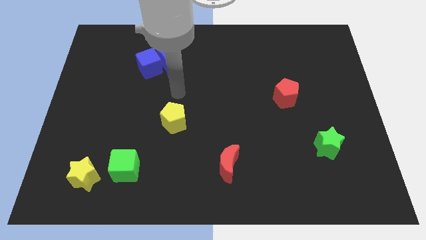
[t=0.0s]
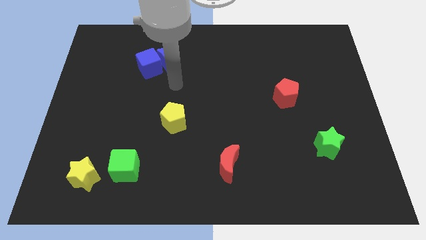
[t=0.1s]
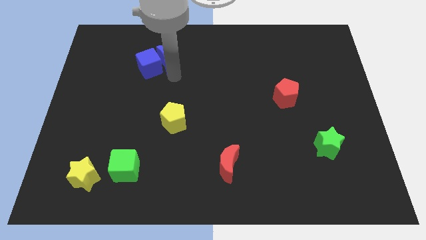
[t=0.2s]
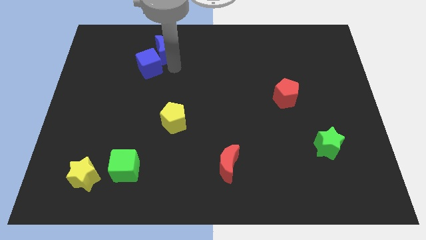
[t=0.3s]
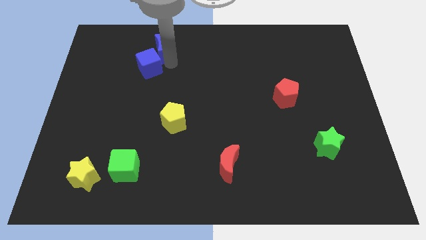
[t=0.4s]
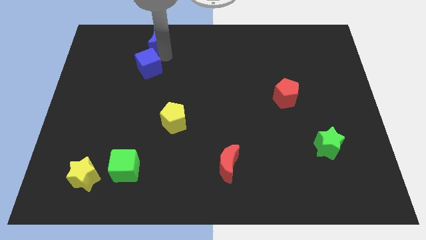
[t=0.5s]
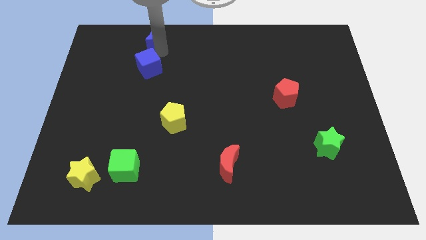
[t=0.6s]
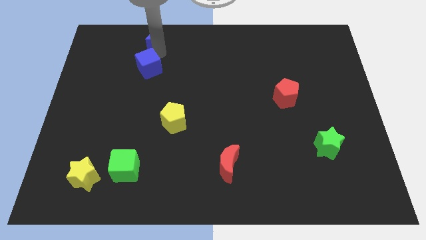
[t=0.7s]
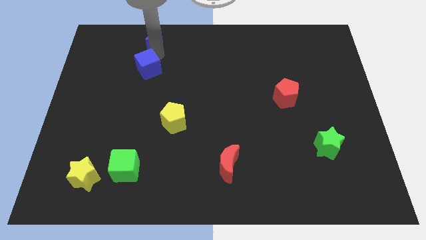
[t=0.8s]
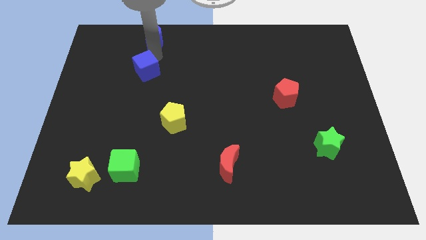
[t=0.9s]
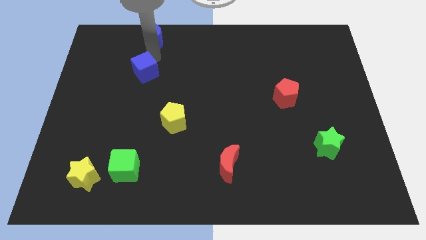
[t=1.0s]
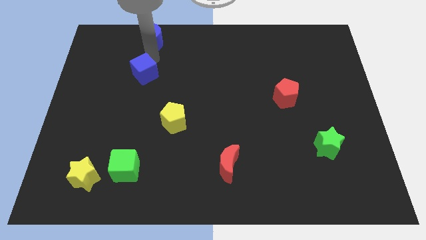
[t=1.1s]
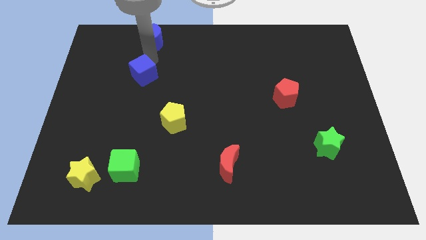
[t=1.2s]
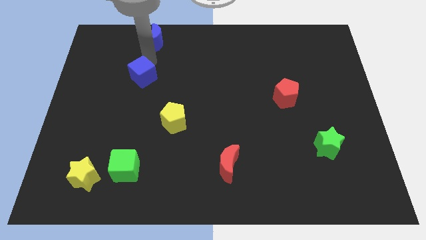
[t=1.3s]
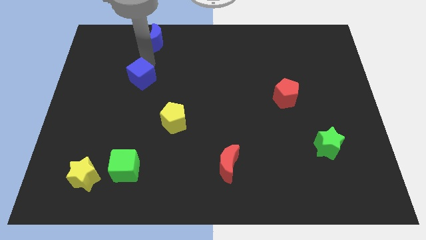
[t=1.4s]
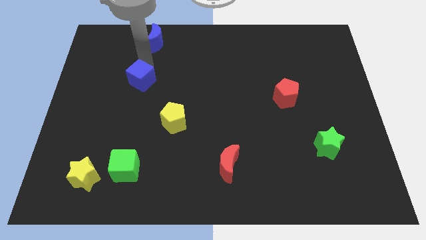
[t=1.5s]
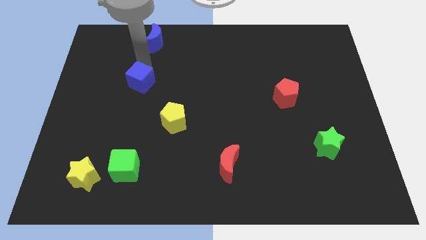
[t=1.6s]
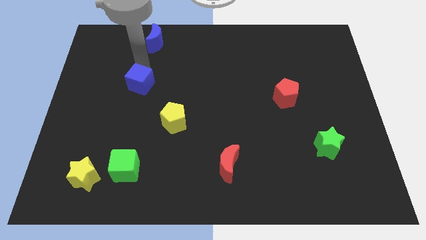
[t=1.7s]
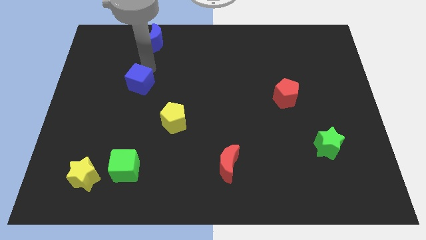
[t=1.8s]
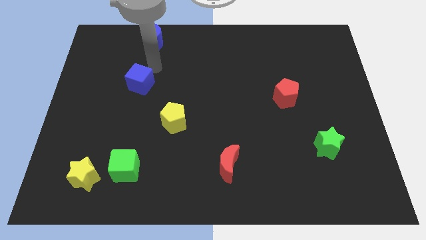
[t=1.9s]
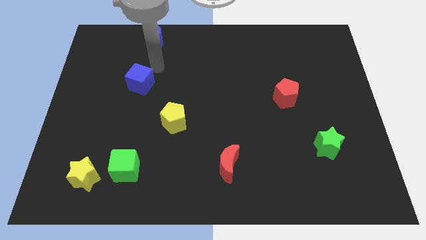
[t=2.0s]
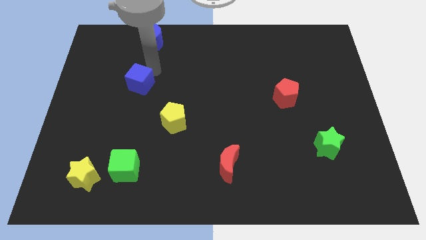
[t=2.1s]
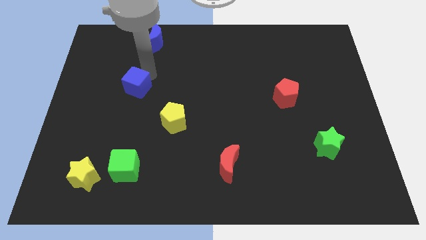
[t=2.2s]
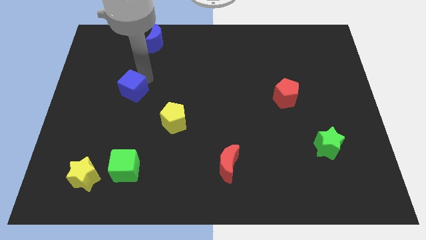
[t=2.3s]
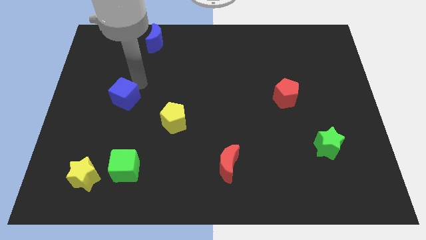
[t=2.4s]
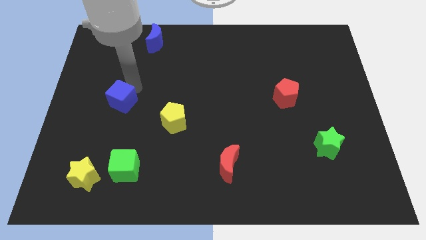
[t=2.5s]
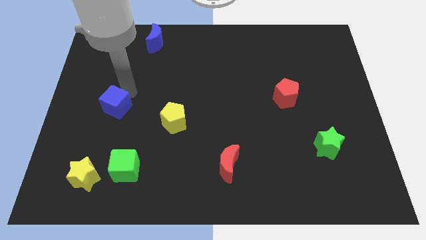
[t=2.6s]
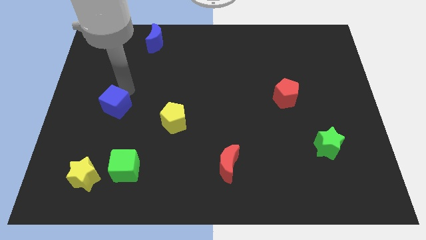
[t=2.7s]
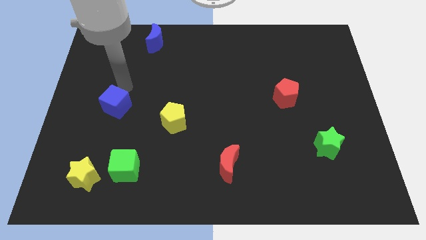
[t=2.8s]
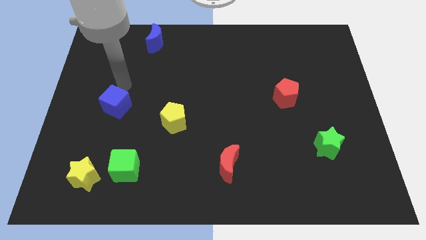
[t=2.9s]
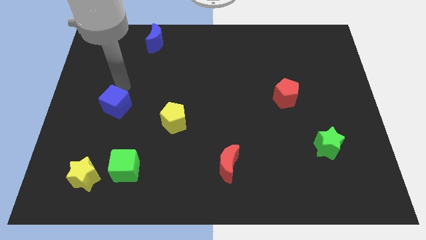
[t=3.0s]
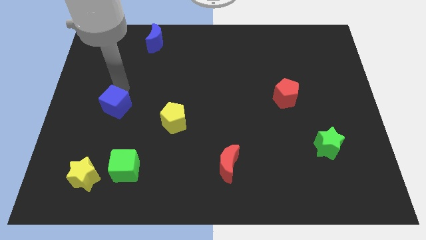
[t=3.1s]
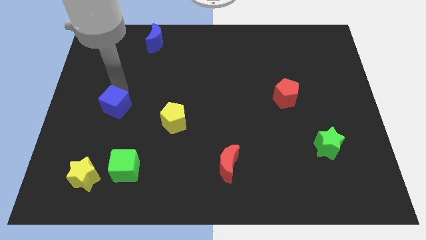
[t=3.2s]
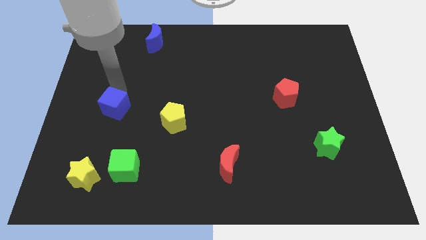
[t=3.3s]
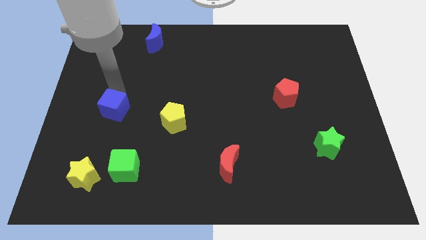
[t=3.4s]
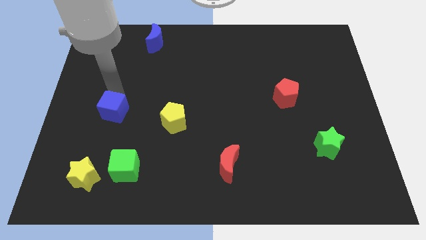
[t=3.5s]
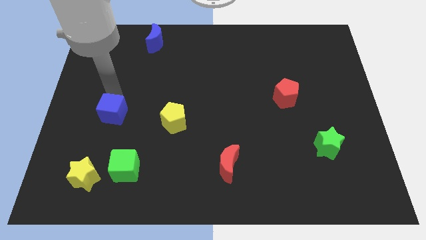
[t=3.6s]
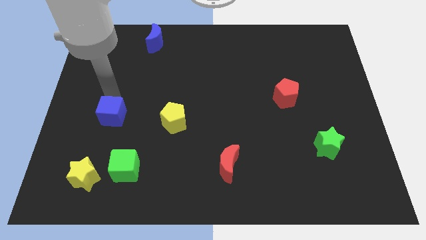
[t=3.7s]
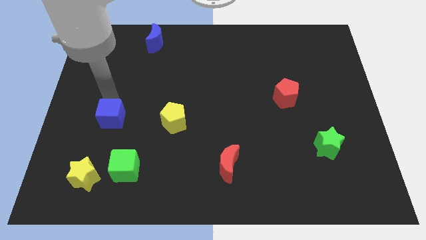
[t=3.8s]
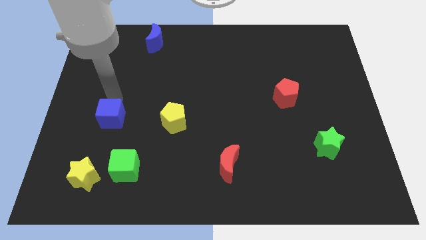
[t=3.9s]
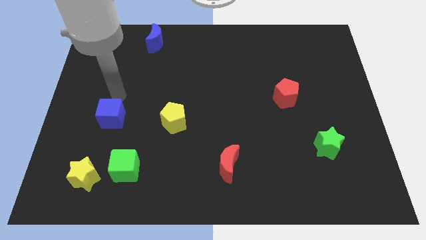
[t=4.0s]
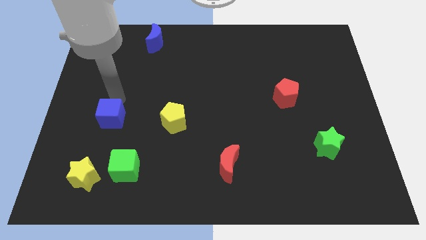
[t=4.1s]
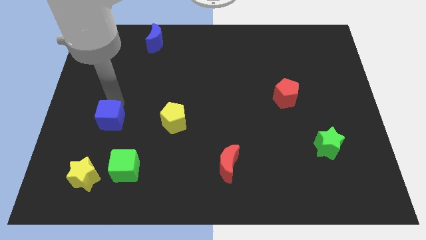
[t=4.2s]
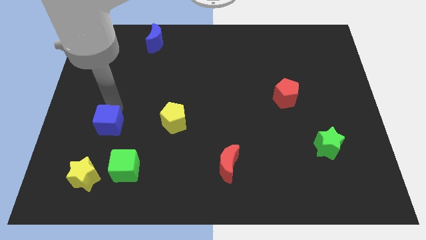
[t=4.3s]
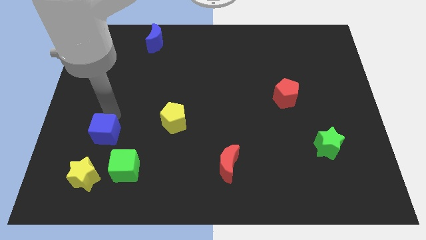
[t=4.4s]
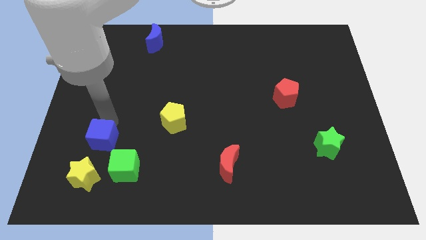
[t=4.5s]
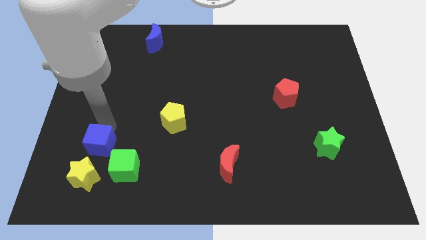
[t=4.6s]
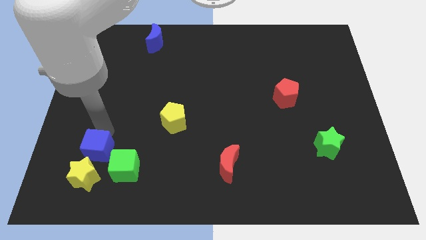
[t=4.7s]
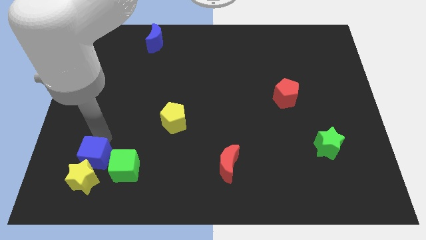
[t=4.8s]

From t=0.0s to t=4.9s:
push the blue cube towards the yellow star

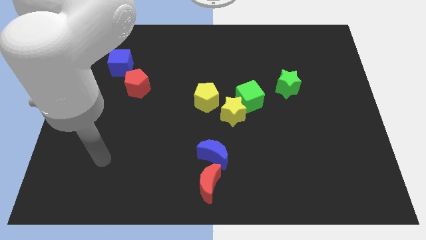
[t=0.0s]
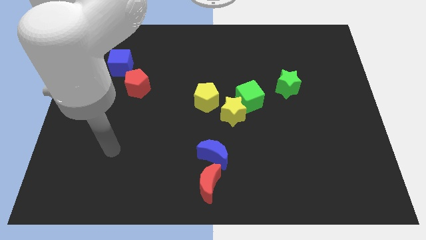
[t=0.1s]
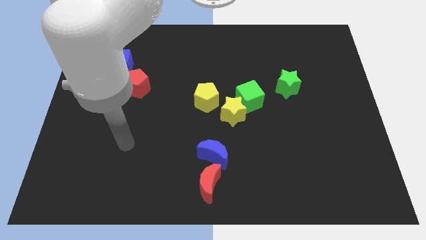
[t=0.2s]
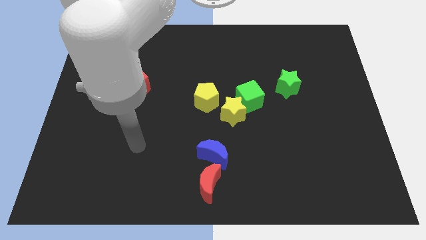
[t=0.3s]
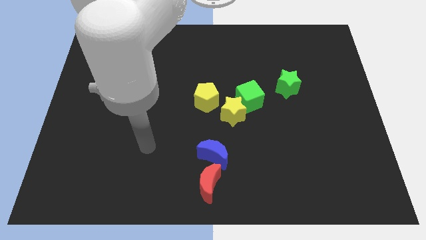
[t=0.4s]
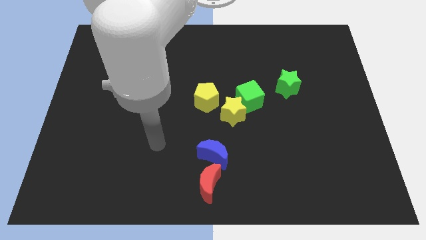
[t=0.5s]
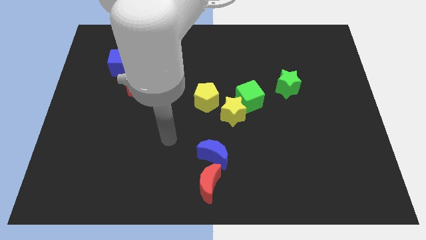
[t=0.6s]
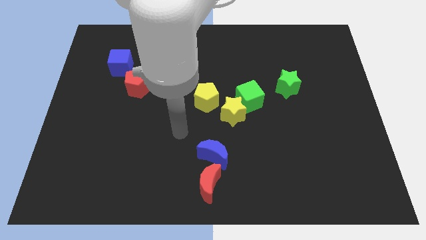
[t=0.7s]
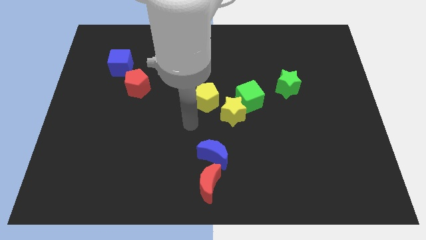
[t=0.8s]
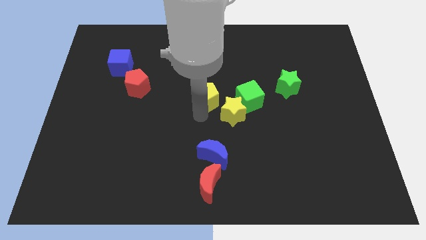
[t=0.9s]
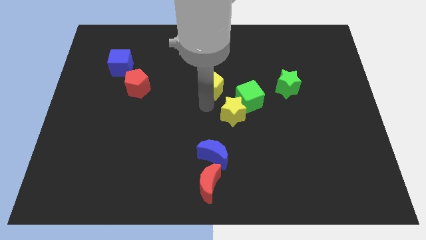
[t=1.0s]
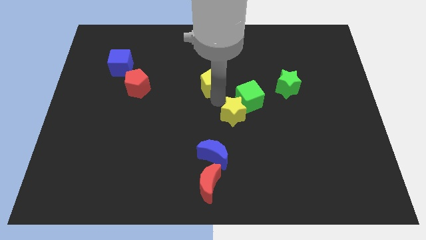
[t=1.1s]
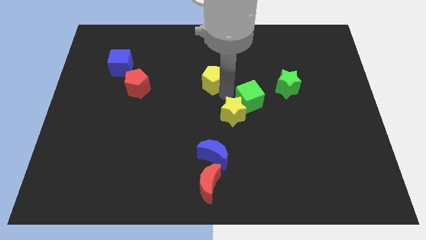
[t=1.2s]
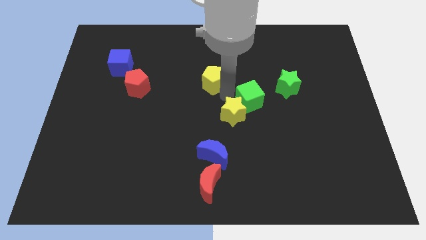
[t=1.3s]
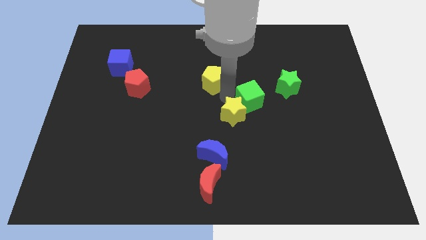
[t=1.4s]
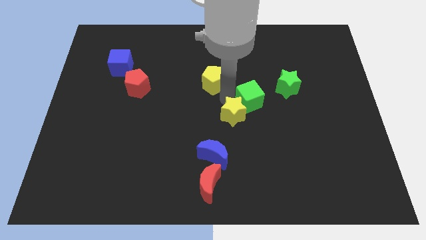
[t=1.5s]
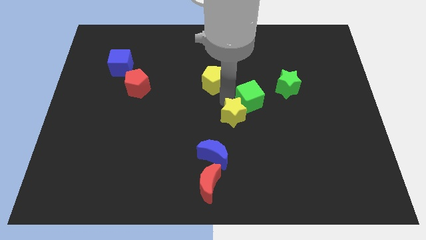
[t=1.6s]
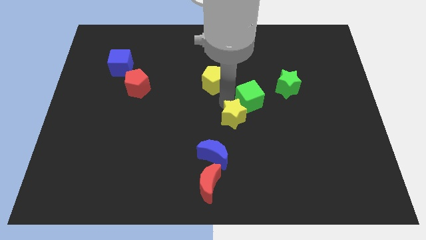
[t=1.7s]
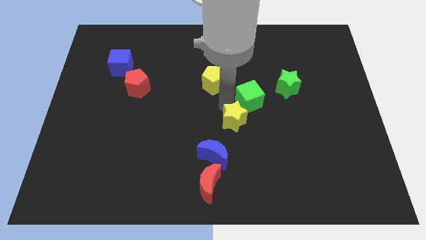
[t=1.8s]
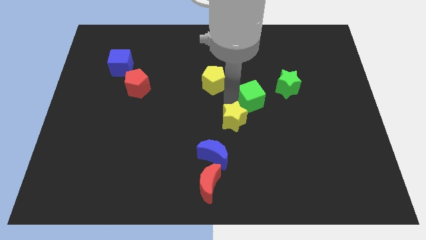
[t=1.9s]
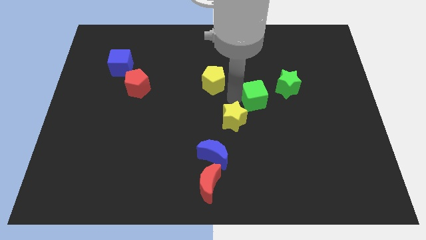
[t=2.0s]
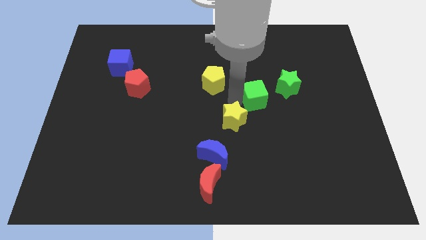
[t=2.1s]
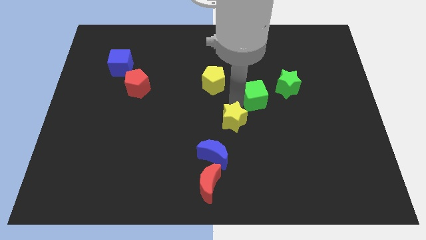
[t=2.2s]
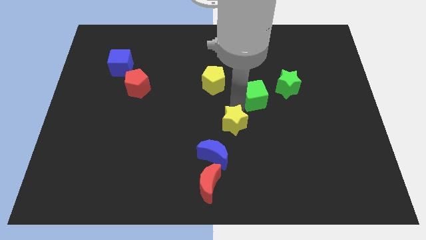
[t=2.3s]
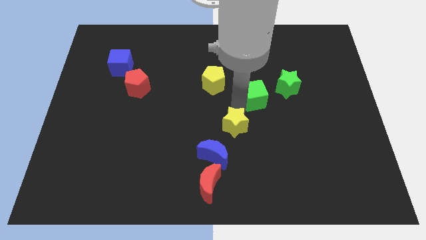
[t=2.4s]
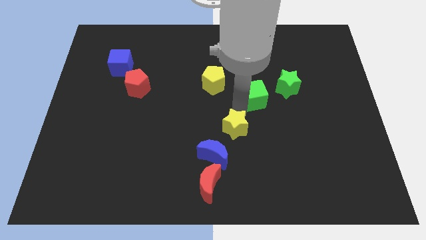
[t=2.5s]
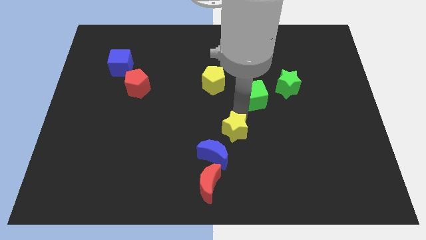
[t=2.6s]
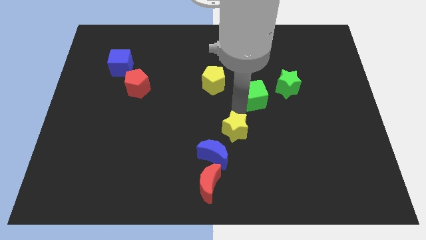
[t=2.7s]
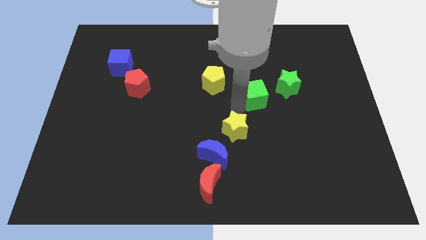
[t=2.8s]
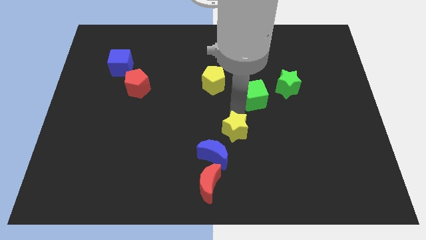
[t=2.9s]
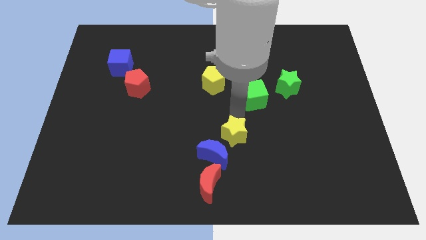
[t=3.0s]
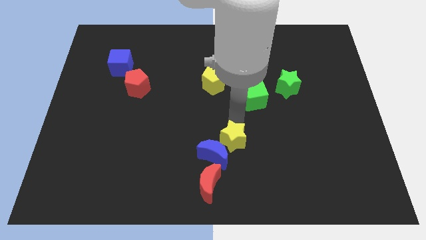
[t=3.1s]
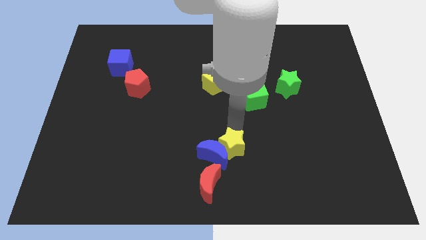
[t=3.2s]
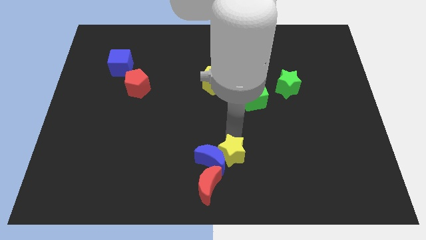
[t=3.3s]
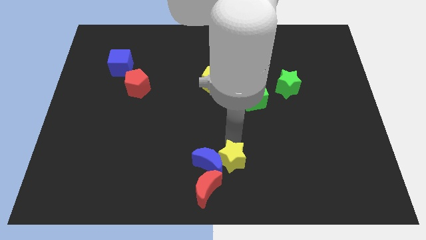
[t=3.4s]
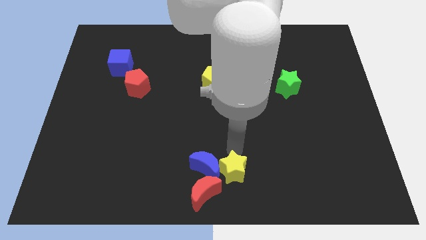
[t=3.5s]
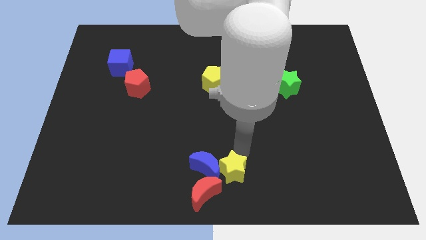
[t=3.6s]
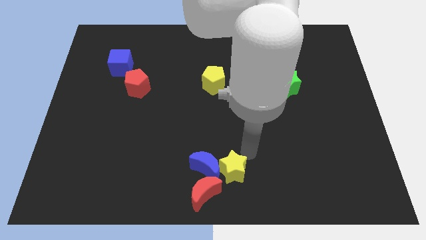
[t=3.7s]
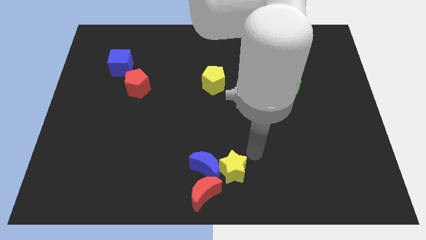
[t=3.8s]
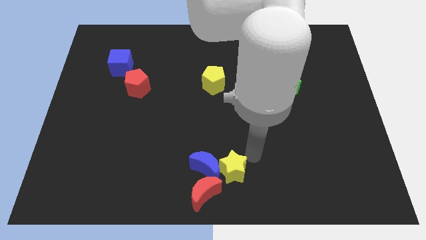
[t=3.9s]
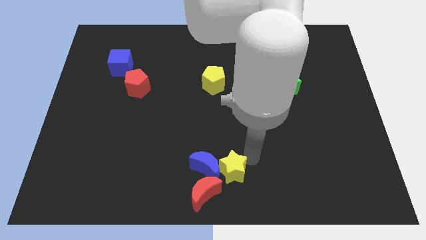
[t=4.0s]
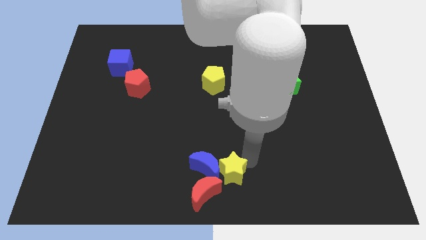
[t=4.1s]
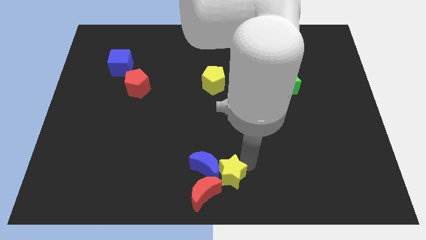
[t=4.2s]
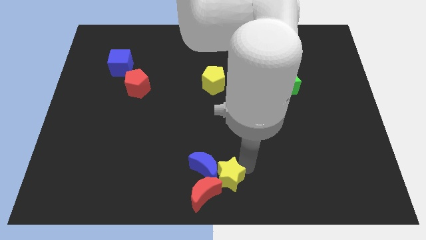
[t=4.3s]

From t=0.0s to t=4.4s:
push the yellow star towards the red moon
